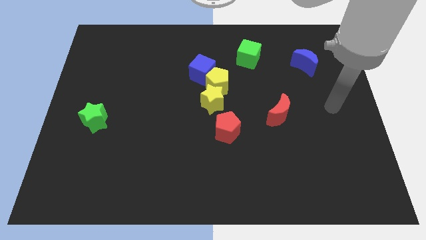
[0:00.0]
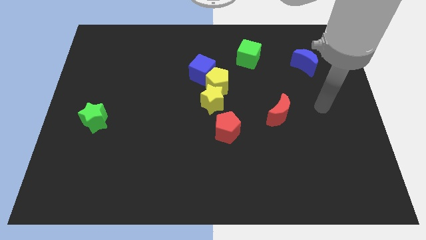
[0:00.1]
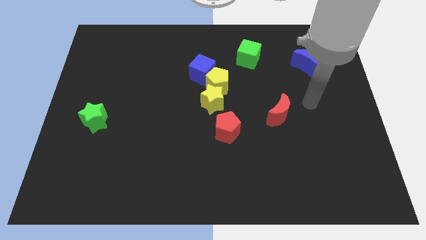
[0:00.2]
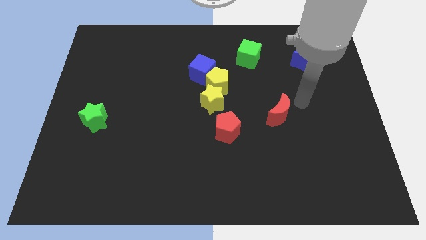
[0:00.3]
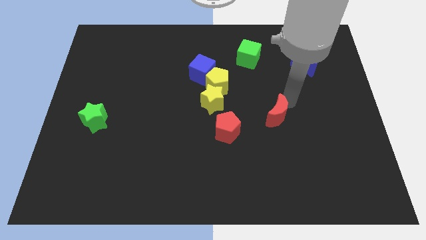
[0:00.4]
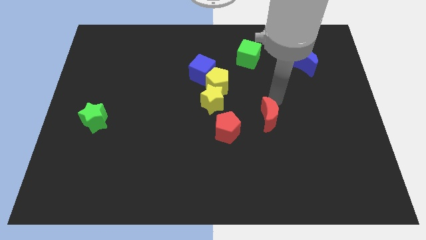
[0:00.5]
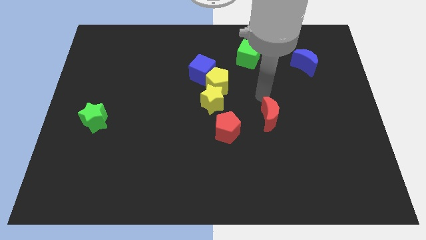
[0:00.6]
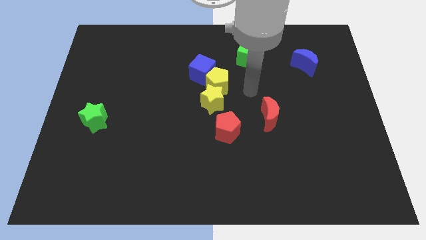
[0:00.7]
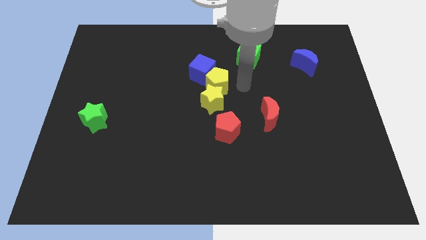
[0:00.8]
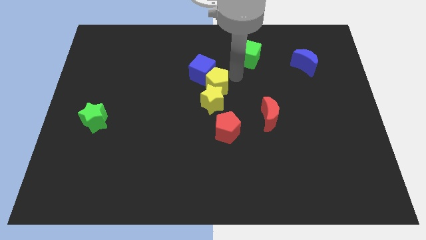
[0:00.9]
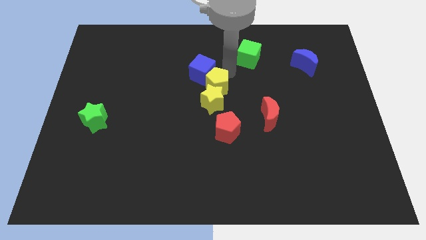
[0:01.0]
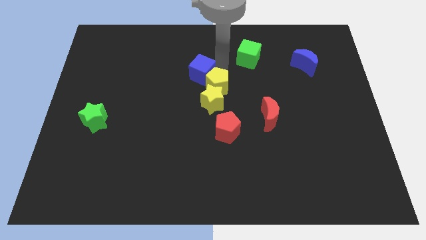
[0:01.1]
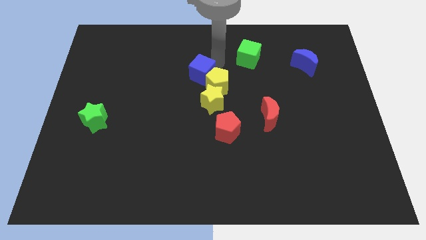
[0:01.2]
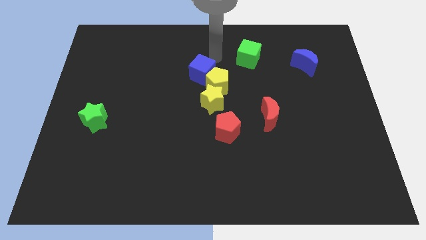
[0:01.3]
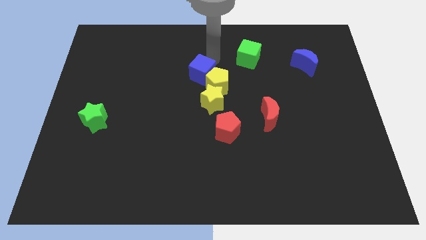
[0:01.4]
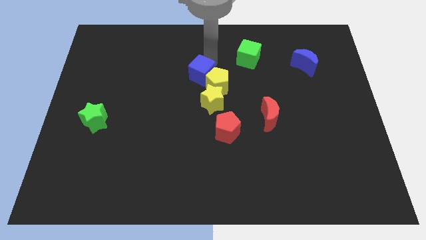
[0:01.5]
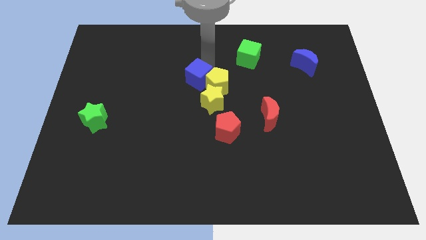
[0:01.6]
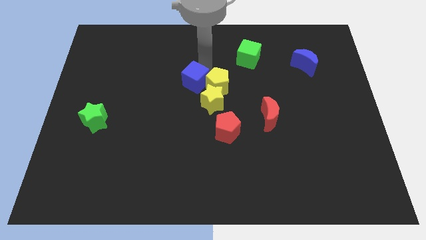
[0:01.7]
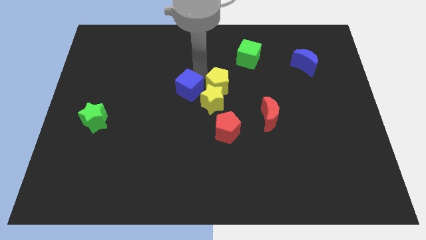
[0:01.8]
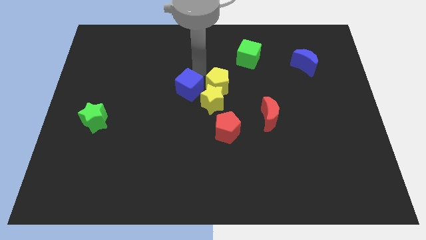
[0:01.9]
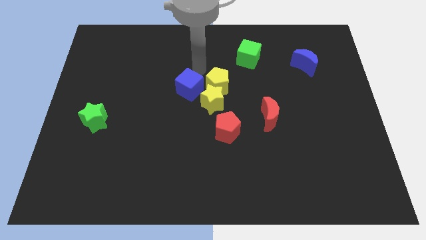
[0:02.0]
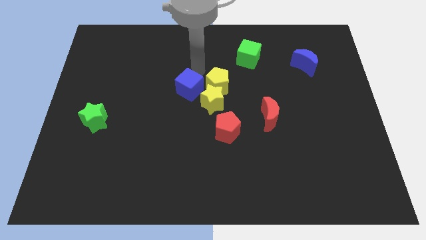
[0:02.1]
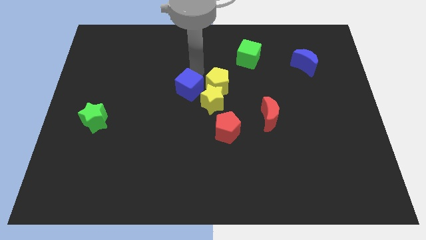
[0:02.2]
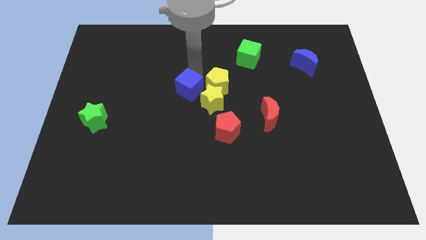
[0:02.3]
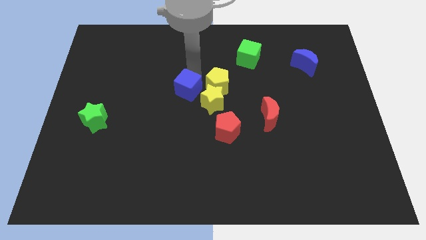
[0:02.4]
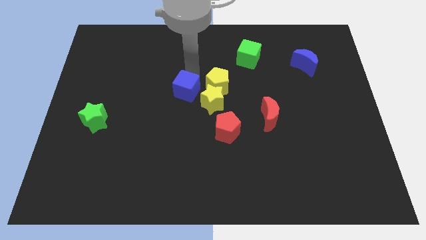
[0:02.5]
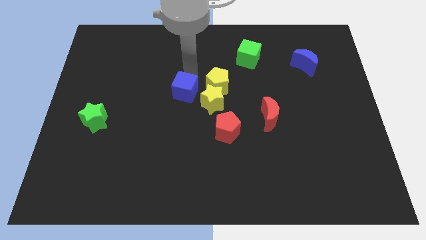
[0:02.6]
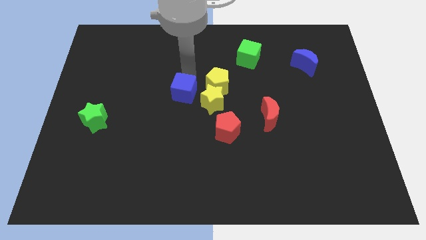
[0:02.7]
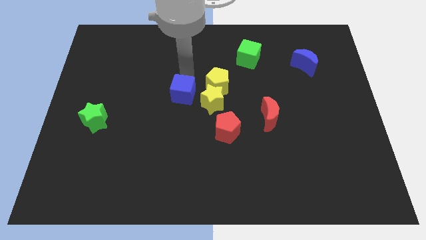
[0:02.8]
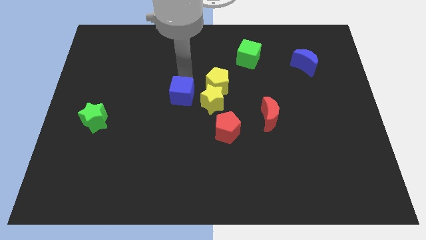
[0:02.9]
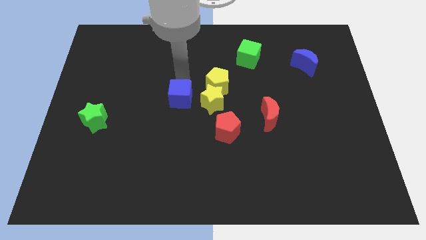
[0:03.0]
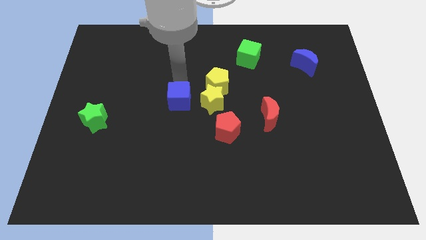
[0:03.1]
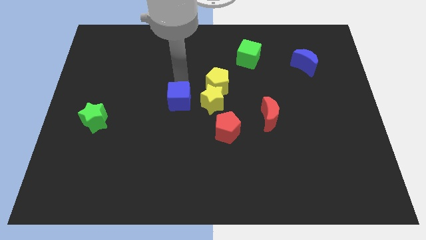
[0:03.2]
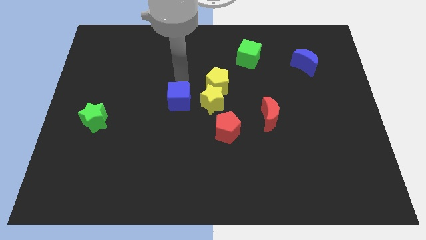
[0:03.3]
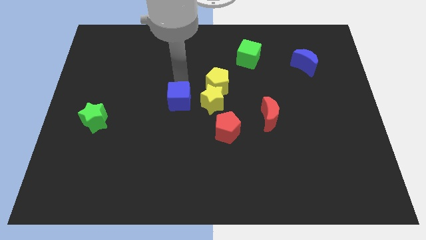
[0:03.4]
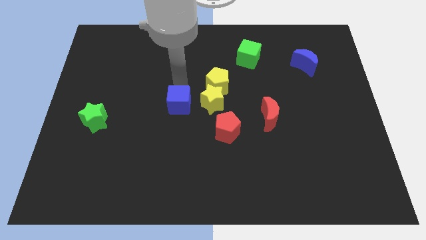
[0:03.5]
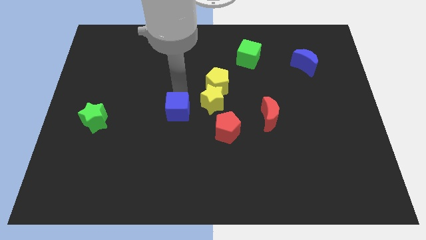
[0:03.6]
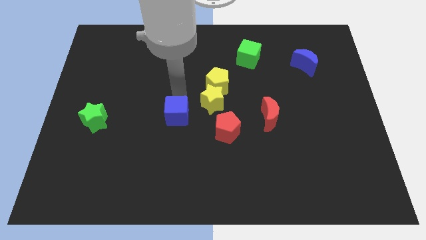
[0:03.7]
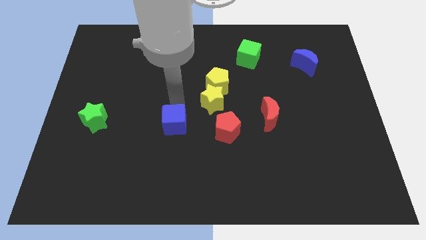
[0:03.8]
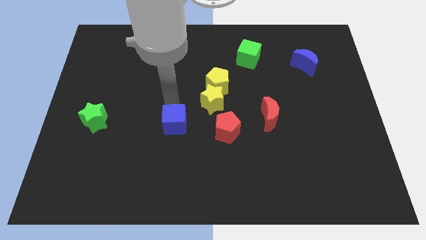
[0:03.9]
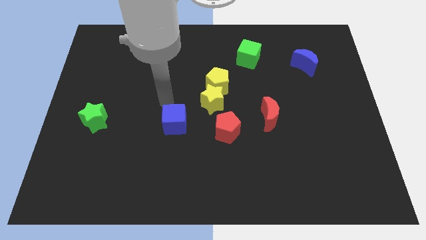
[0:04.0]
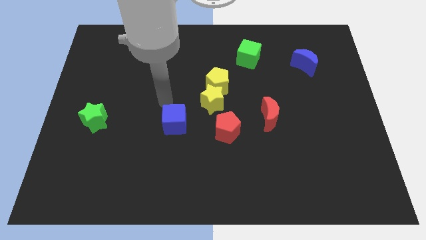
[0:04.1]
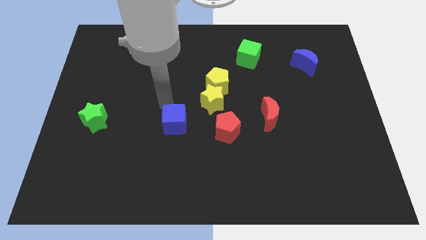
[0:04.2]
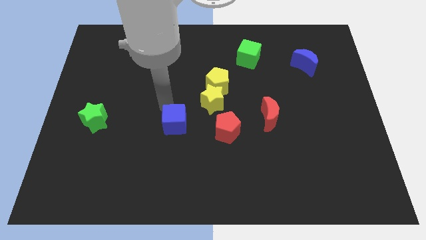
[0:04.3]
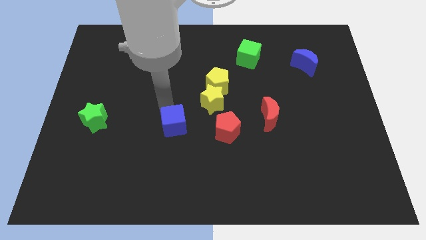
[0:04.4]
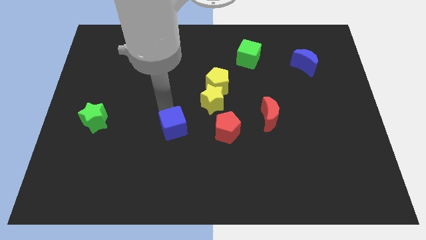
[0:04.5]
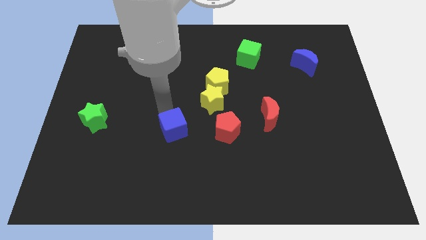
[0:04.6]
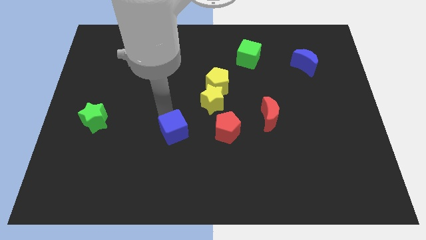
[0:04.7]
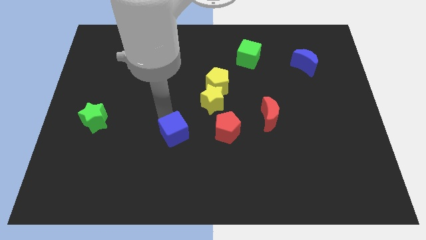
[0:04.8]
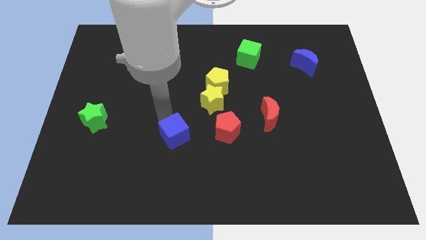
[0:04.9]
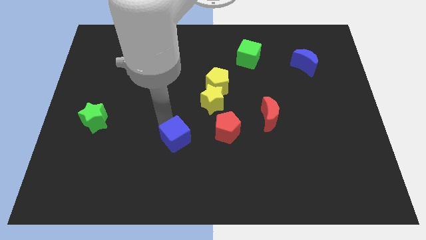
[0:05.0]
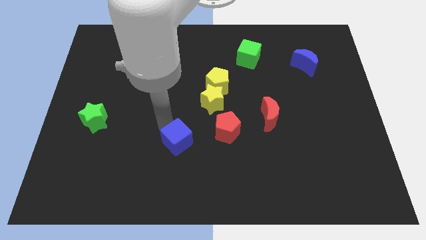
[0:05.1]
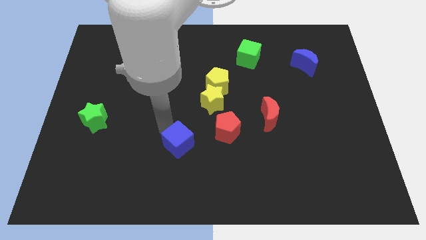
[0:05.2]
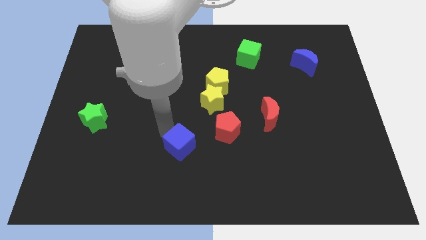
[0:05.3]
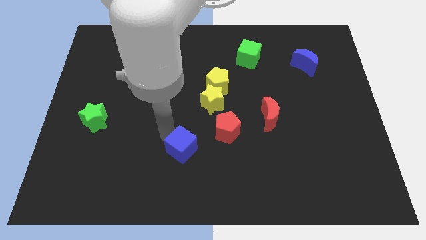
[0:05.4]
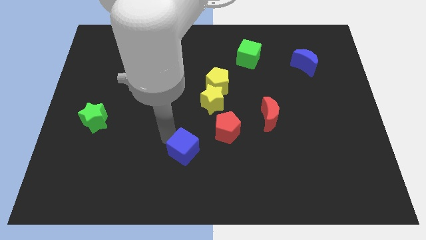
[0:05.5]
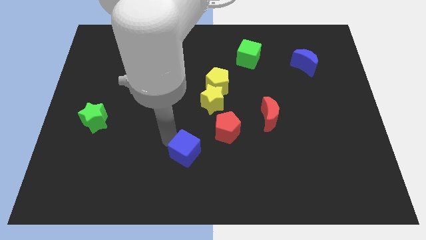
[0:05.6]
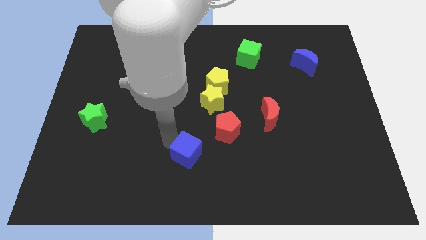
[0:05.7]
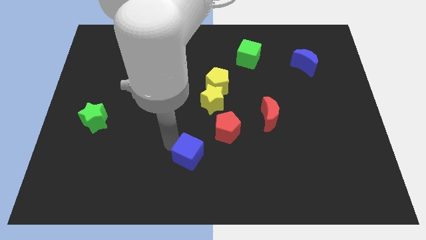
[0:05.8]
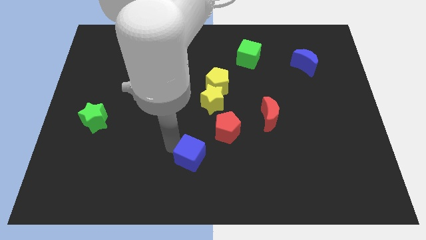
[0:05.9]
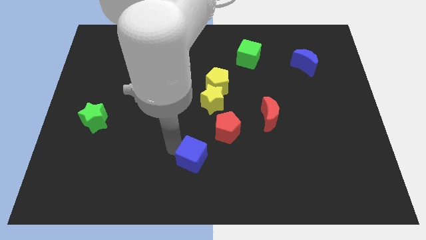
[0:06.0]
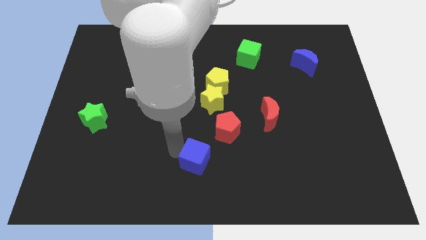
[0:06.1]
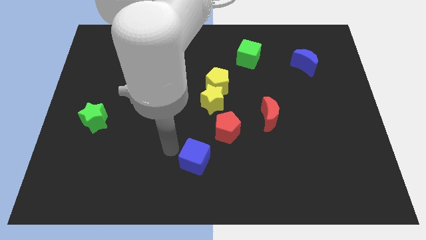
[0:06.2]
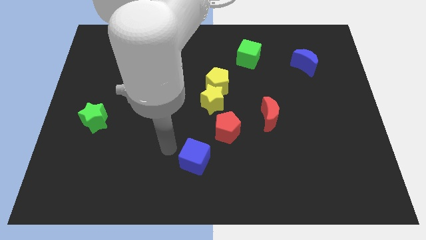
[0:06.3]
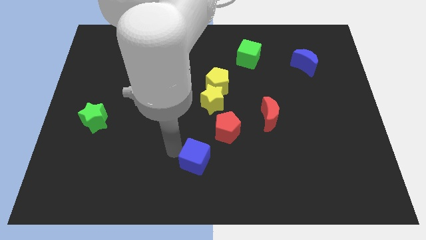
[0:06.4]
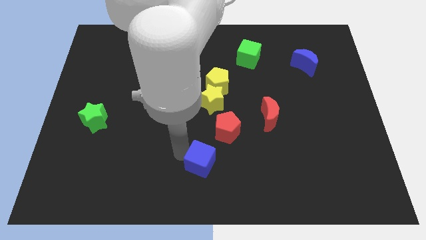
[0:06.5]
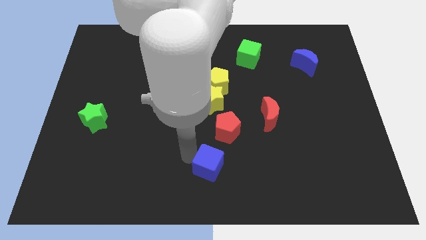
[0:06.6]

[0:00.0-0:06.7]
push the blue cube to the bottom of the red pentagon

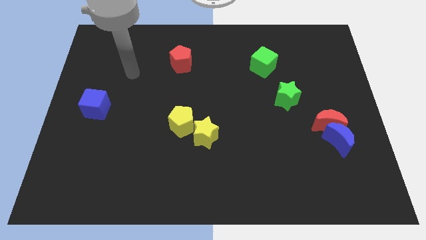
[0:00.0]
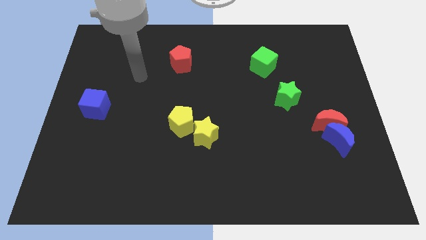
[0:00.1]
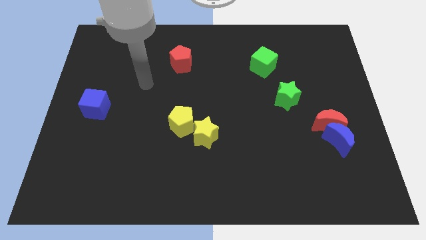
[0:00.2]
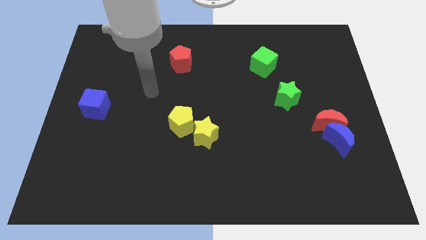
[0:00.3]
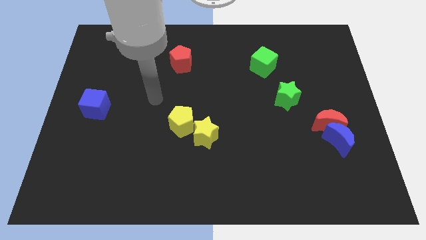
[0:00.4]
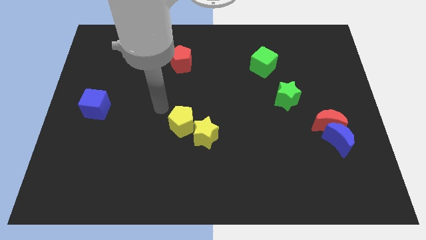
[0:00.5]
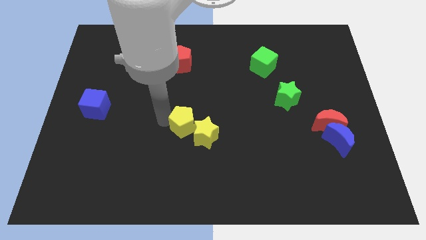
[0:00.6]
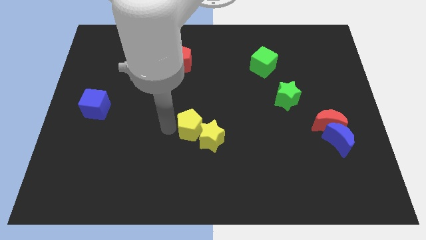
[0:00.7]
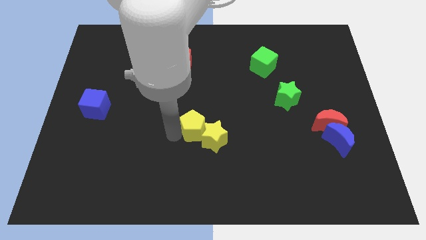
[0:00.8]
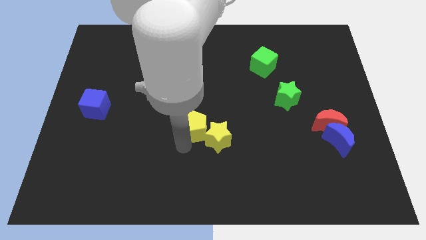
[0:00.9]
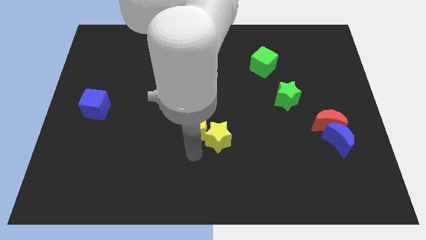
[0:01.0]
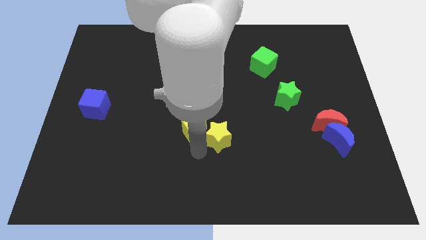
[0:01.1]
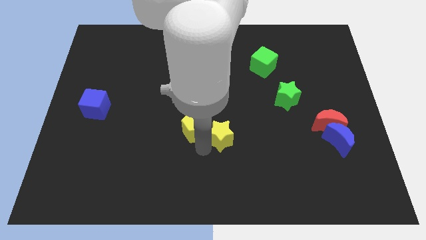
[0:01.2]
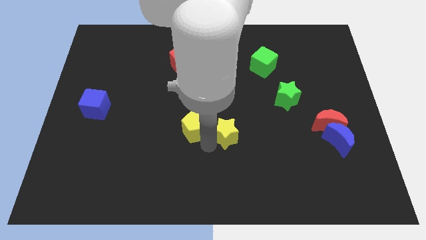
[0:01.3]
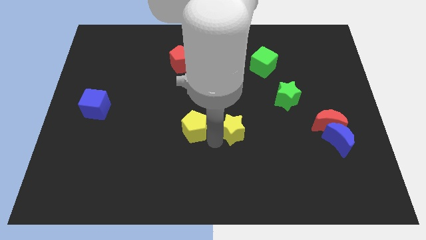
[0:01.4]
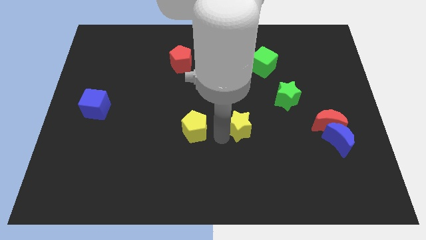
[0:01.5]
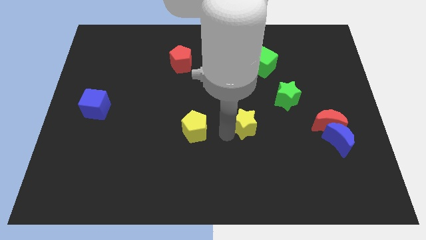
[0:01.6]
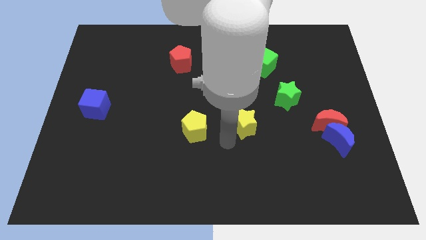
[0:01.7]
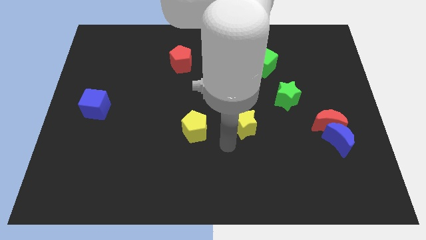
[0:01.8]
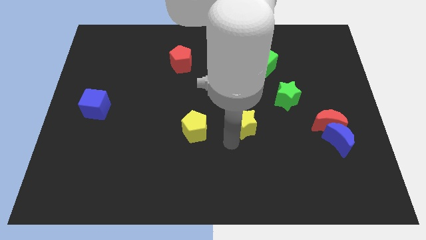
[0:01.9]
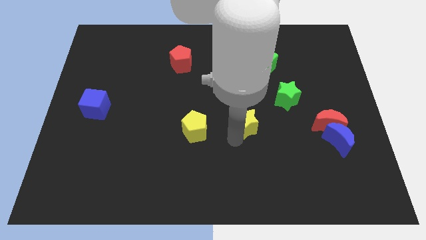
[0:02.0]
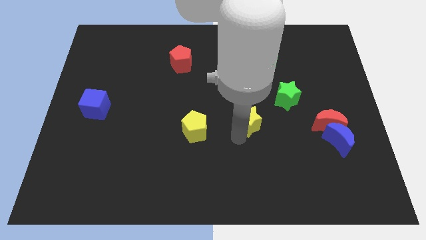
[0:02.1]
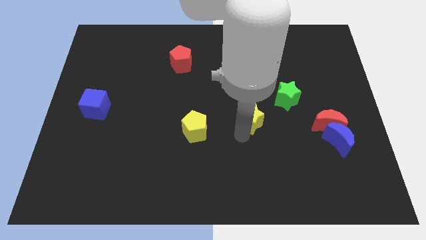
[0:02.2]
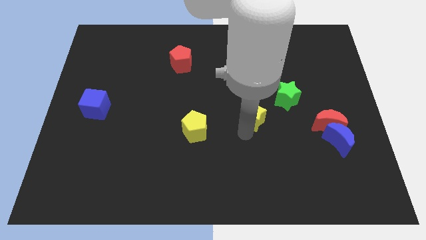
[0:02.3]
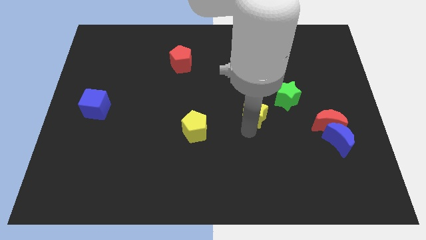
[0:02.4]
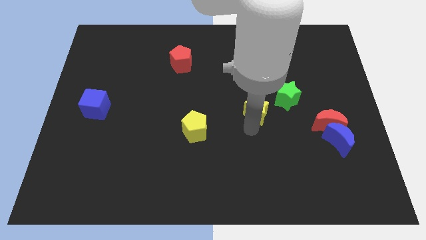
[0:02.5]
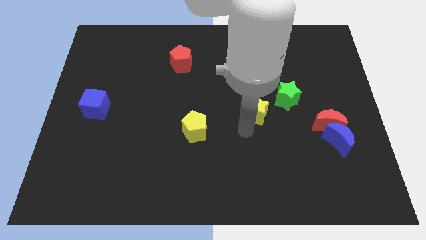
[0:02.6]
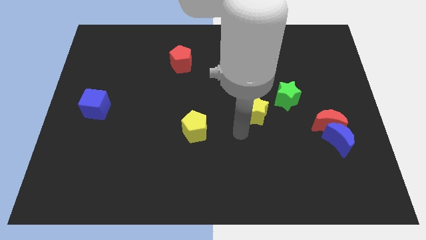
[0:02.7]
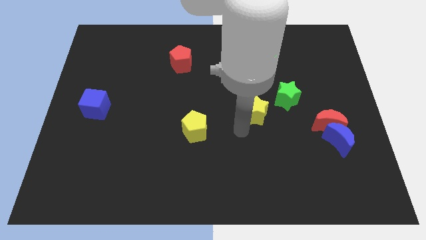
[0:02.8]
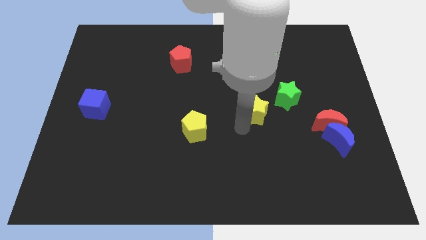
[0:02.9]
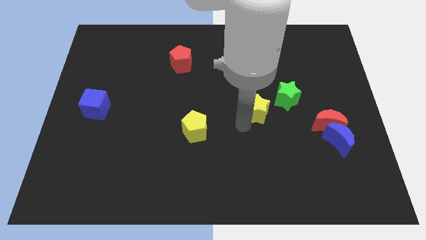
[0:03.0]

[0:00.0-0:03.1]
push the yellow star to the bottom side of the green cube
